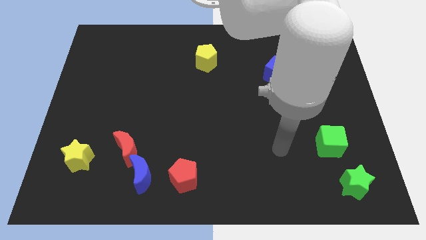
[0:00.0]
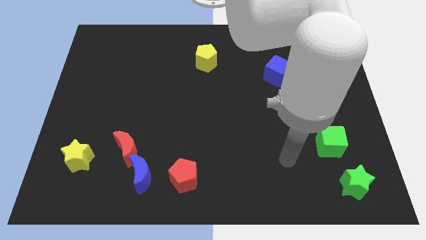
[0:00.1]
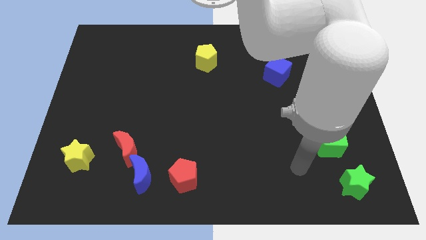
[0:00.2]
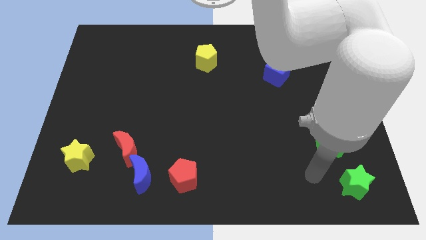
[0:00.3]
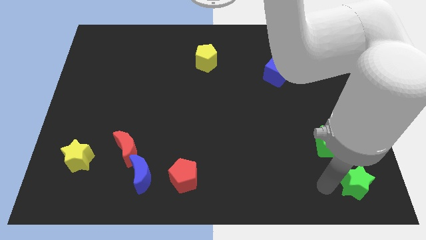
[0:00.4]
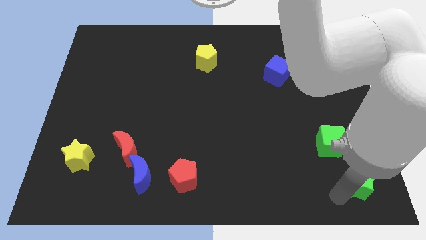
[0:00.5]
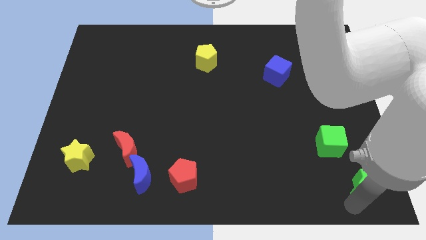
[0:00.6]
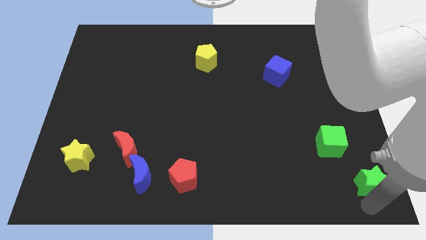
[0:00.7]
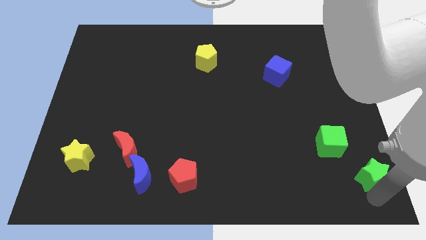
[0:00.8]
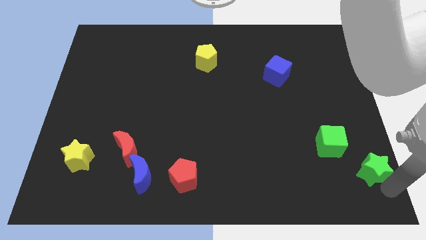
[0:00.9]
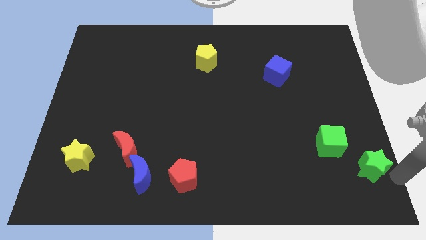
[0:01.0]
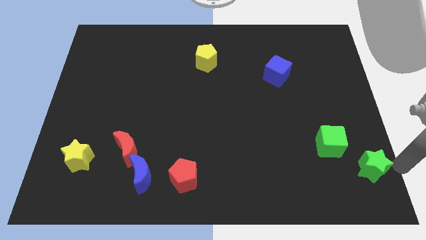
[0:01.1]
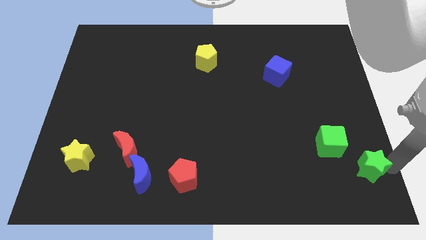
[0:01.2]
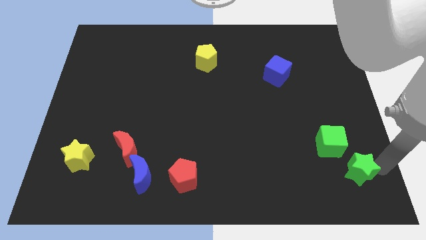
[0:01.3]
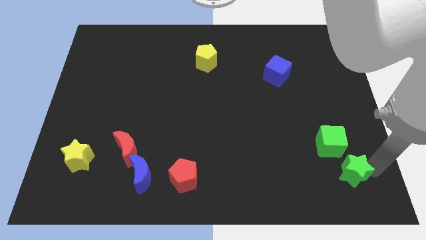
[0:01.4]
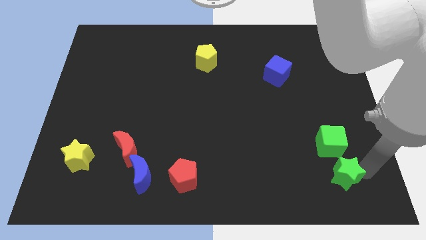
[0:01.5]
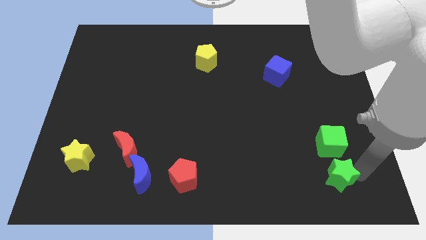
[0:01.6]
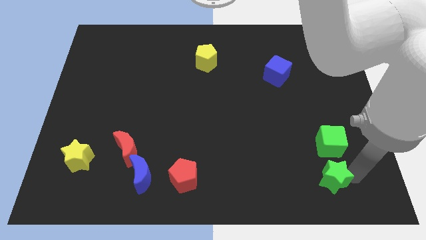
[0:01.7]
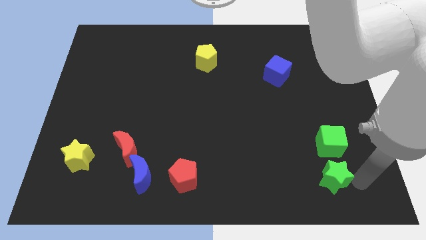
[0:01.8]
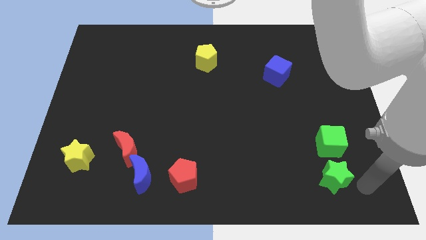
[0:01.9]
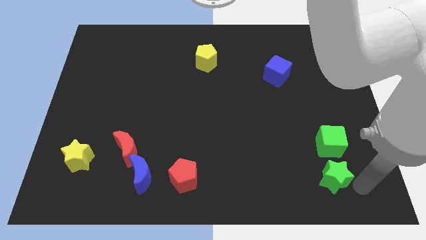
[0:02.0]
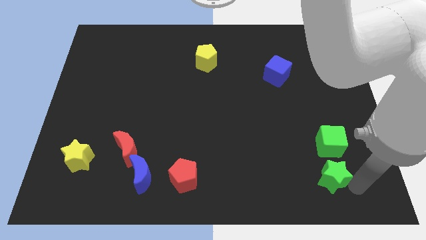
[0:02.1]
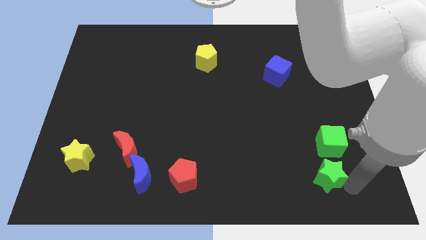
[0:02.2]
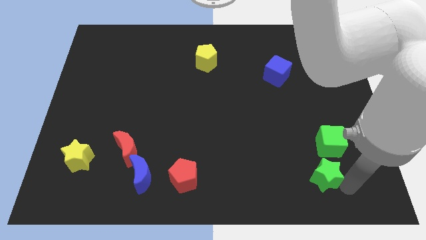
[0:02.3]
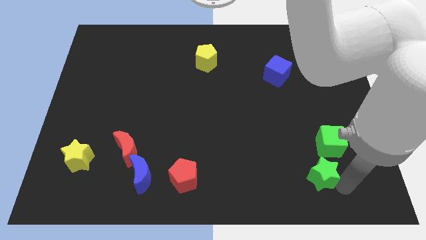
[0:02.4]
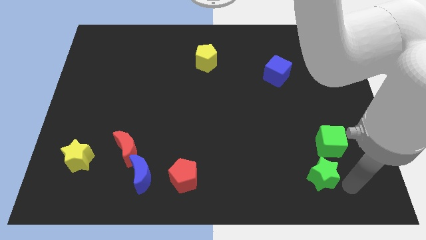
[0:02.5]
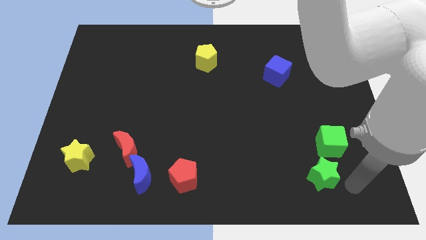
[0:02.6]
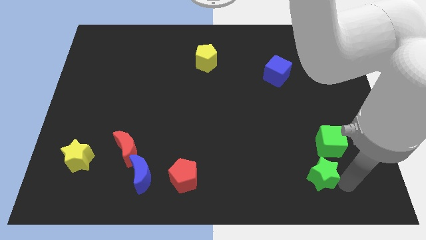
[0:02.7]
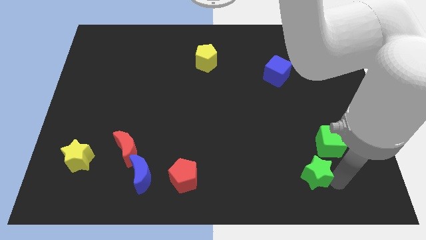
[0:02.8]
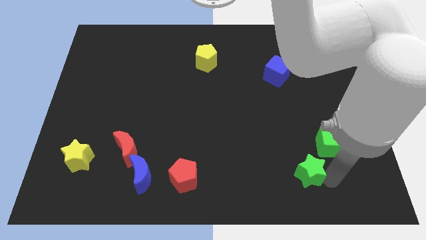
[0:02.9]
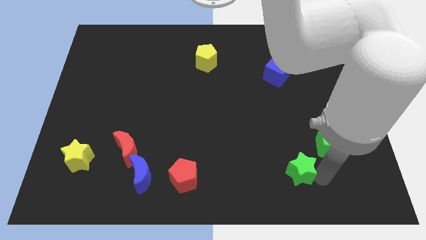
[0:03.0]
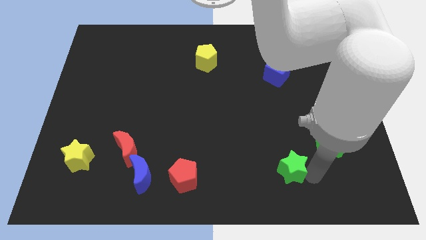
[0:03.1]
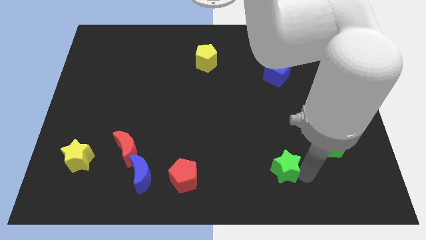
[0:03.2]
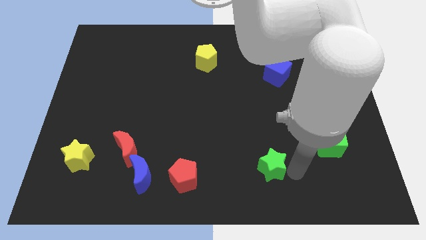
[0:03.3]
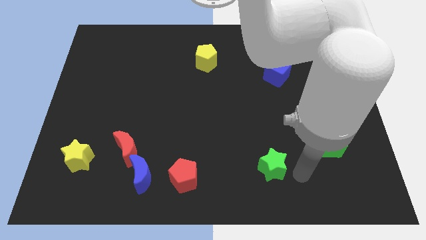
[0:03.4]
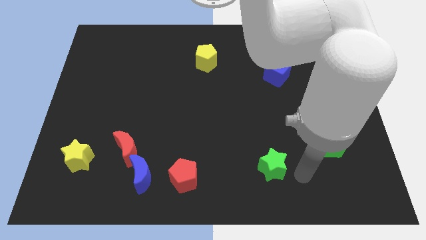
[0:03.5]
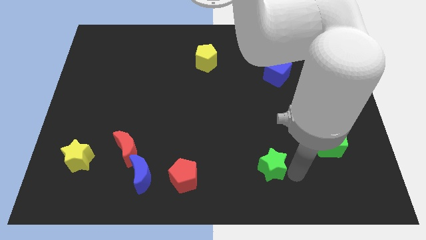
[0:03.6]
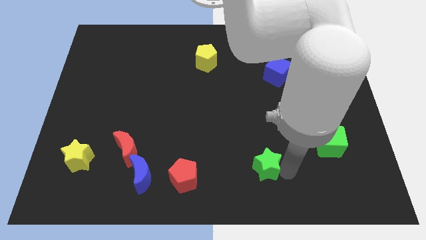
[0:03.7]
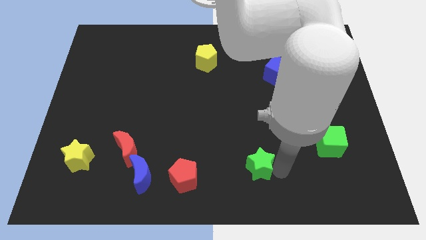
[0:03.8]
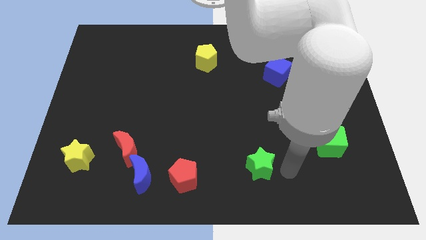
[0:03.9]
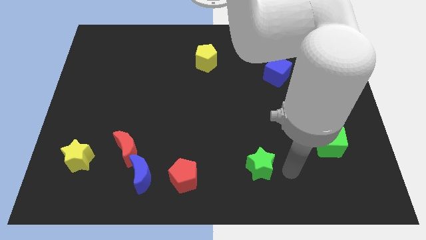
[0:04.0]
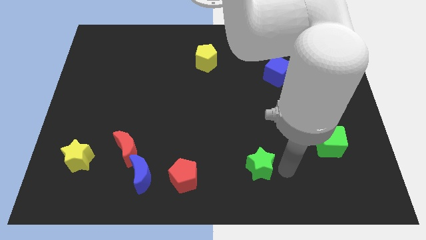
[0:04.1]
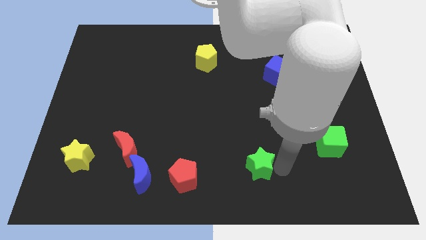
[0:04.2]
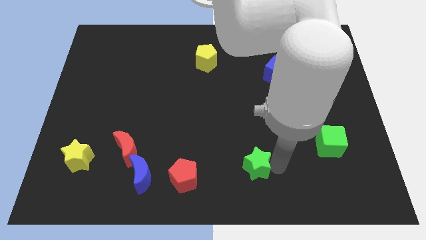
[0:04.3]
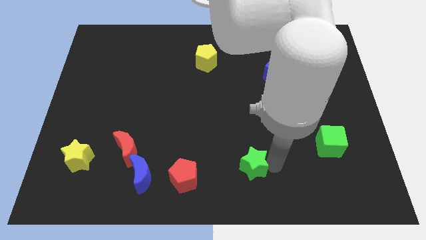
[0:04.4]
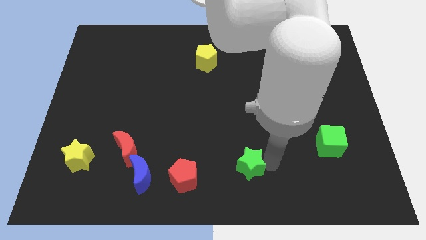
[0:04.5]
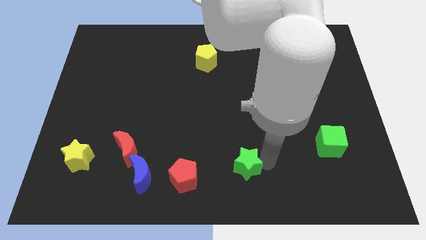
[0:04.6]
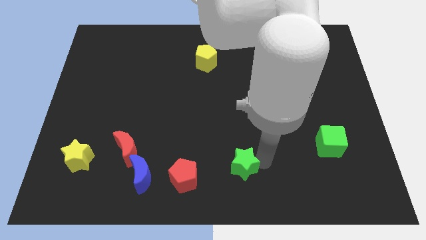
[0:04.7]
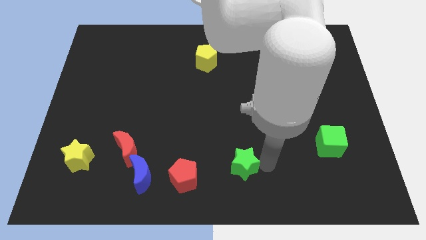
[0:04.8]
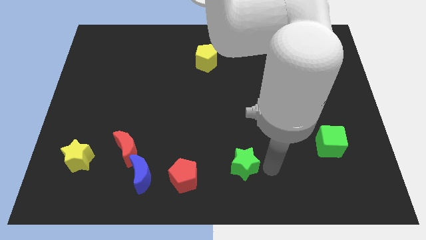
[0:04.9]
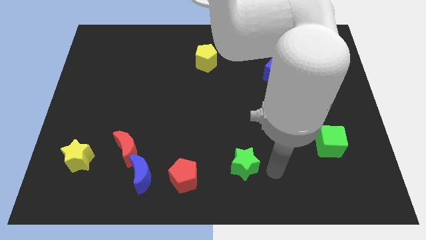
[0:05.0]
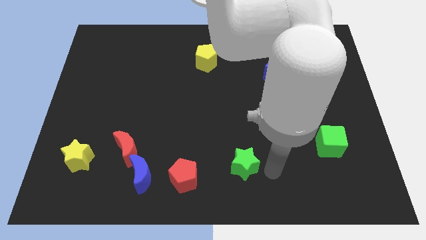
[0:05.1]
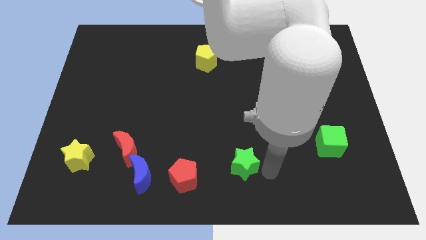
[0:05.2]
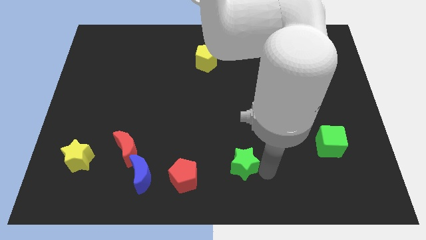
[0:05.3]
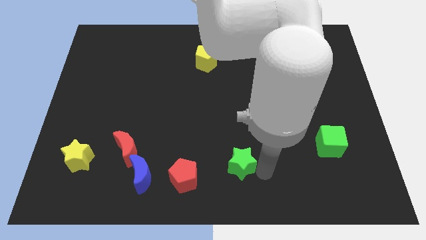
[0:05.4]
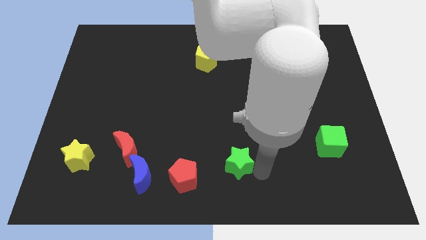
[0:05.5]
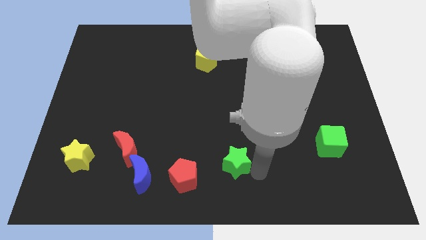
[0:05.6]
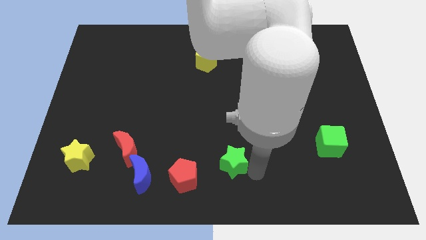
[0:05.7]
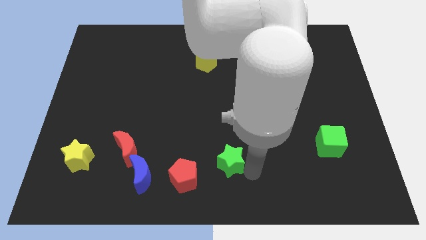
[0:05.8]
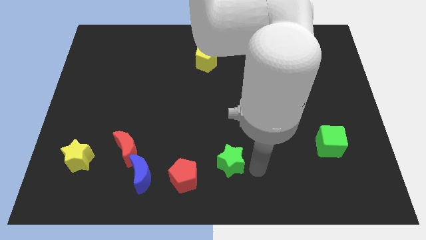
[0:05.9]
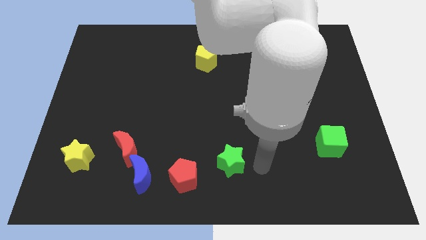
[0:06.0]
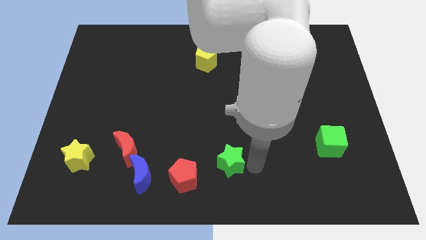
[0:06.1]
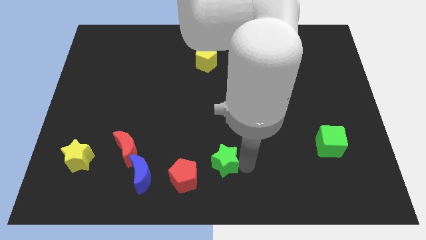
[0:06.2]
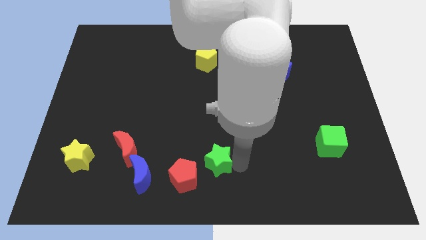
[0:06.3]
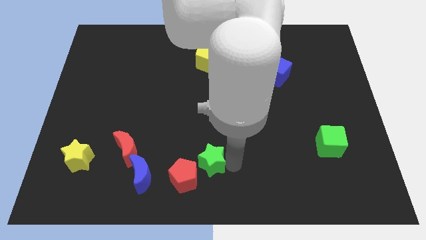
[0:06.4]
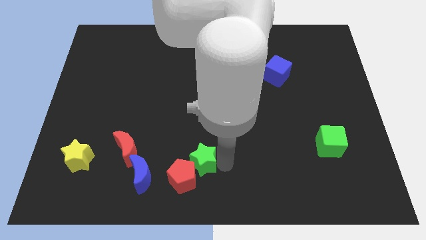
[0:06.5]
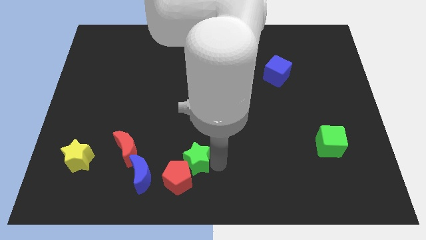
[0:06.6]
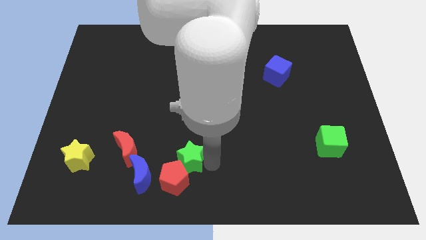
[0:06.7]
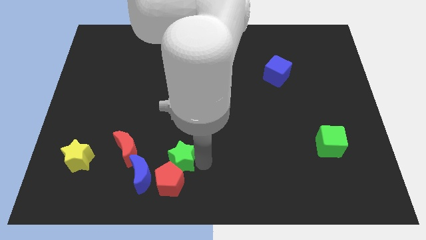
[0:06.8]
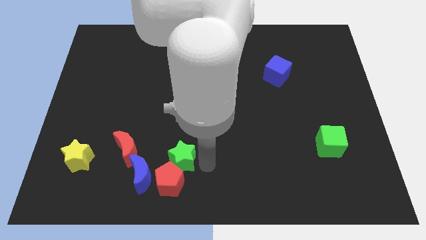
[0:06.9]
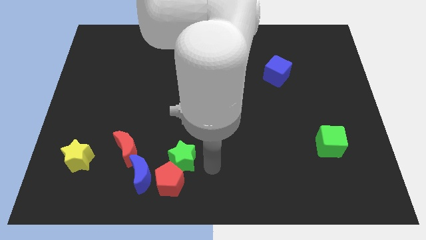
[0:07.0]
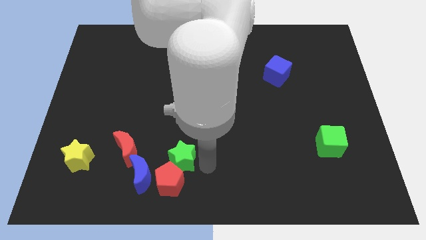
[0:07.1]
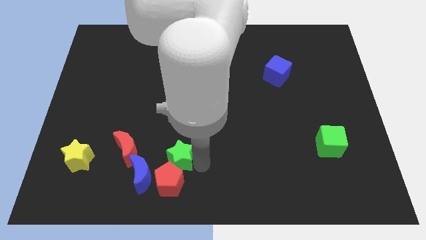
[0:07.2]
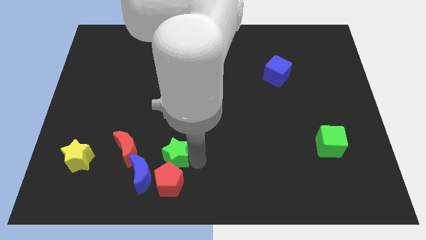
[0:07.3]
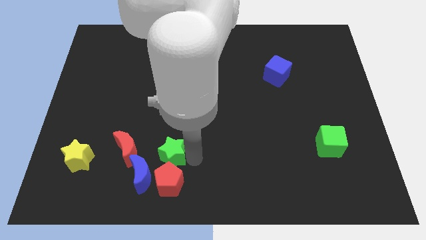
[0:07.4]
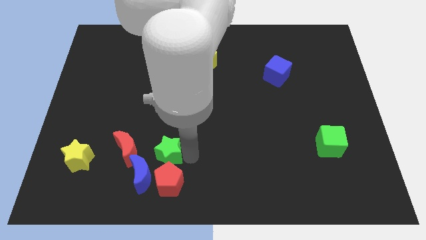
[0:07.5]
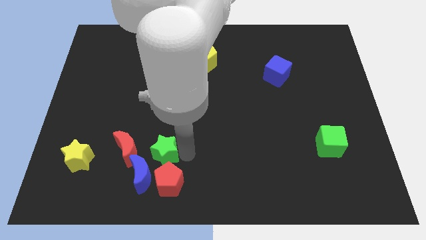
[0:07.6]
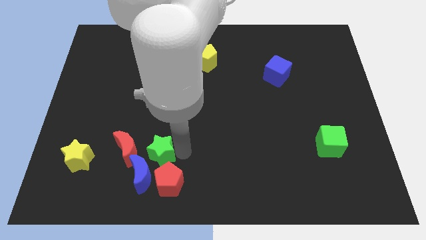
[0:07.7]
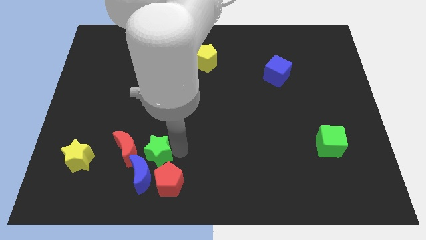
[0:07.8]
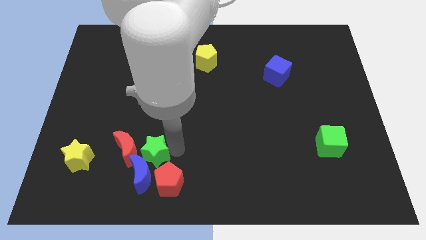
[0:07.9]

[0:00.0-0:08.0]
move the green star to the right side of the yellow star
